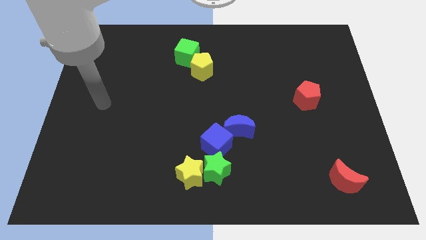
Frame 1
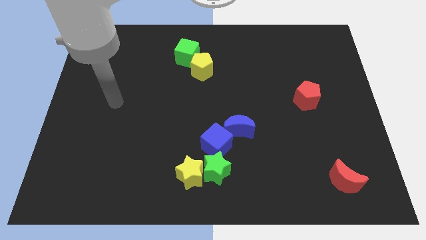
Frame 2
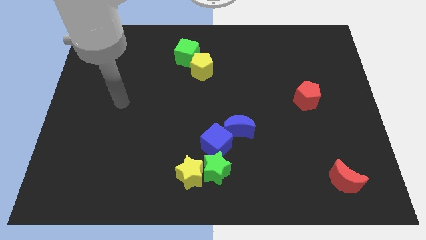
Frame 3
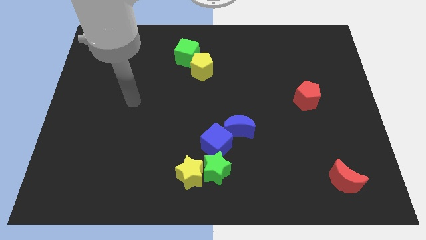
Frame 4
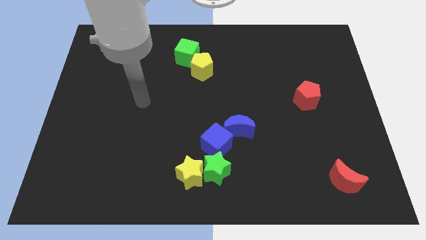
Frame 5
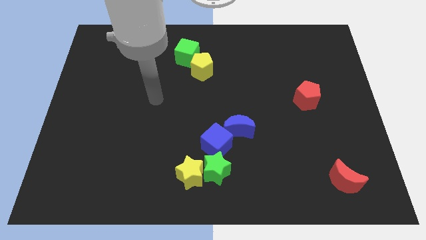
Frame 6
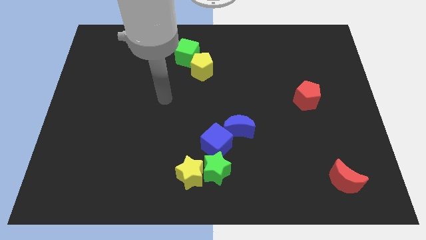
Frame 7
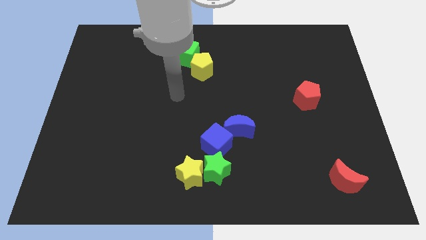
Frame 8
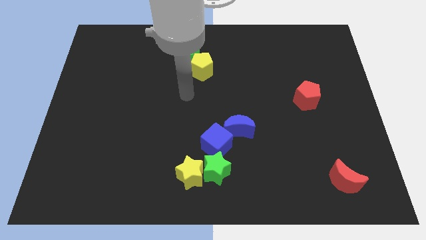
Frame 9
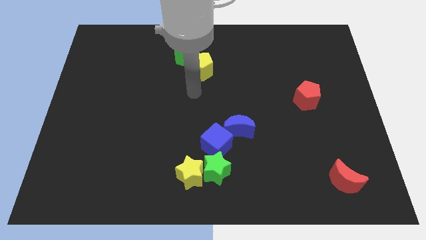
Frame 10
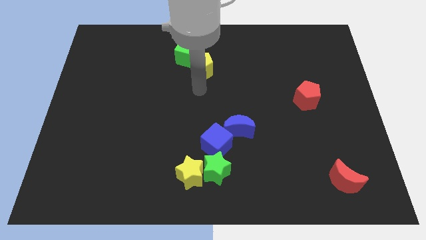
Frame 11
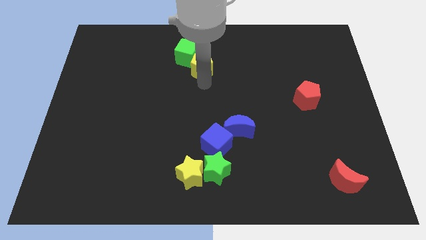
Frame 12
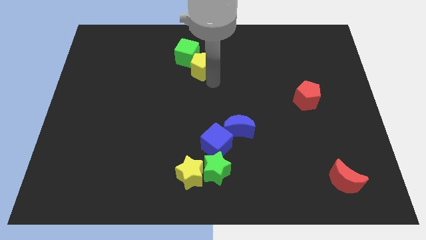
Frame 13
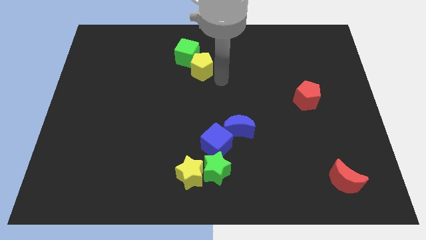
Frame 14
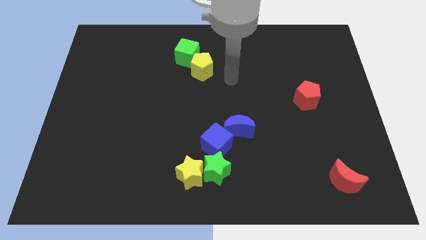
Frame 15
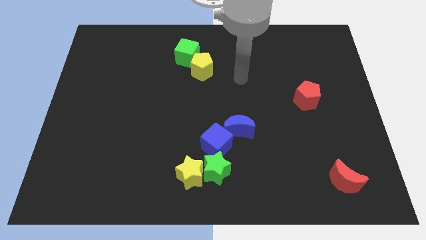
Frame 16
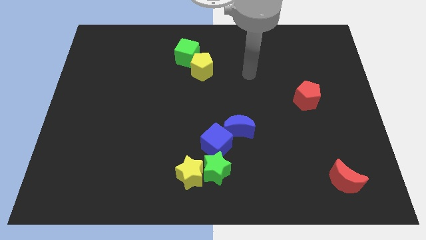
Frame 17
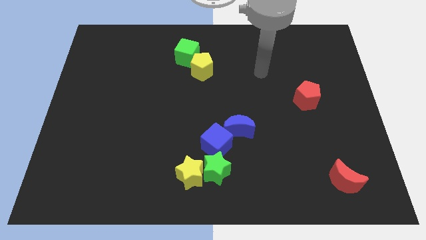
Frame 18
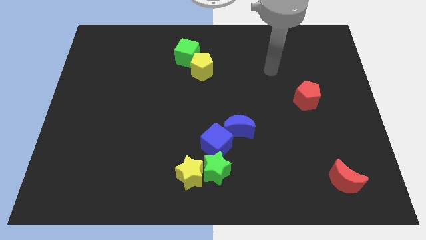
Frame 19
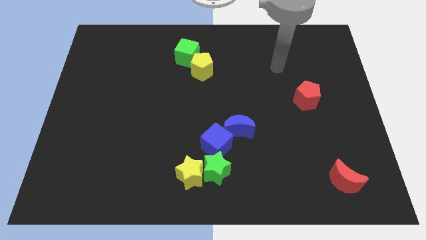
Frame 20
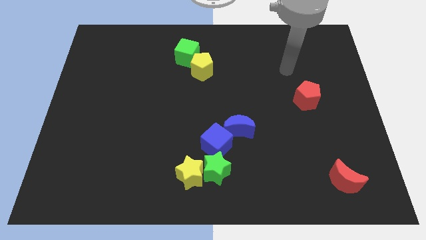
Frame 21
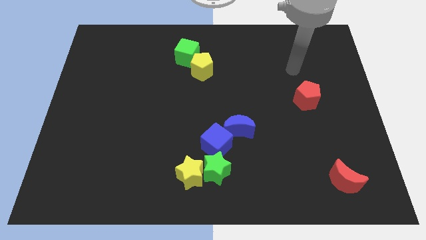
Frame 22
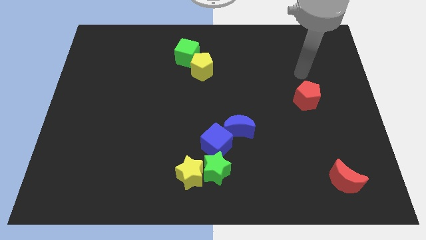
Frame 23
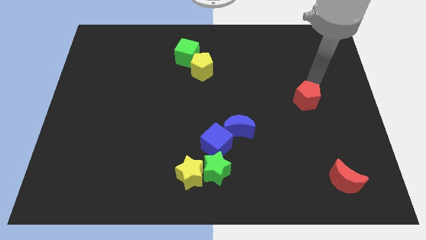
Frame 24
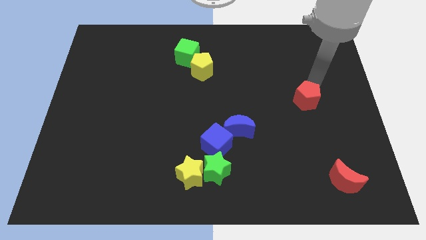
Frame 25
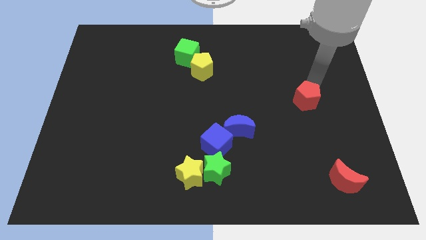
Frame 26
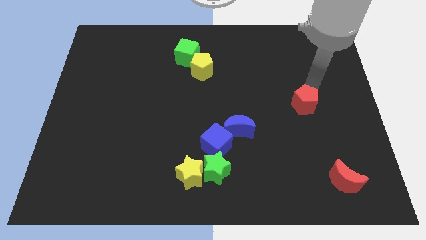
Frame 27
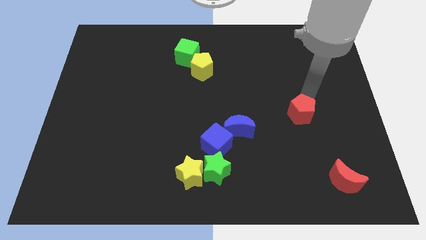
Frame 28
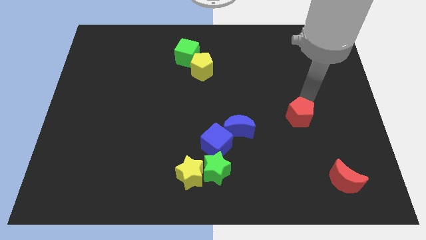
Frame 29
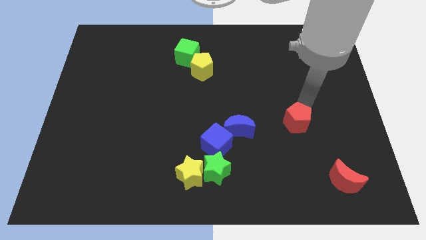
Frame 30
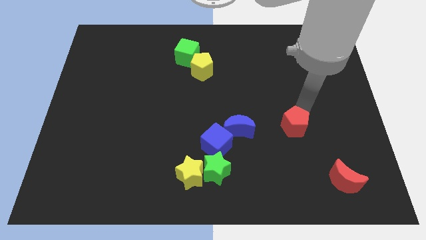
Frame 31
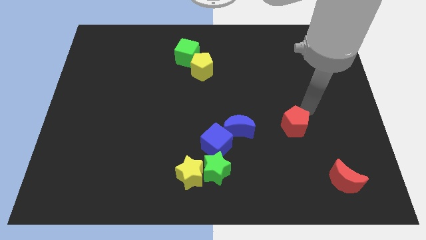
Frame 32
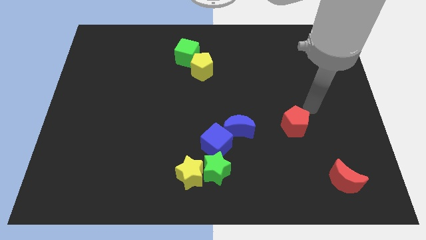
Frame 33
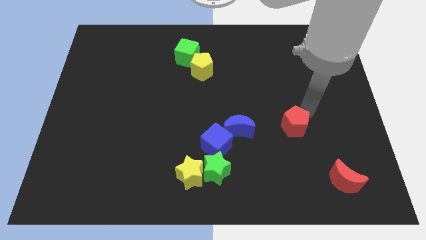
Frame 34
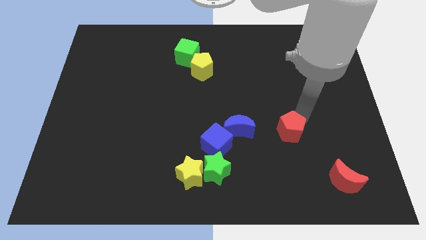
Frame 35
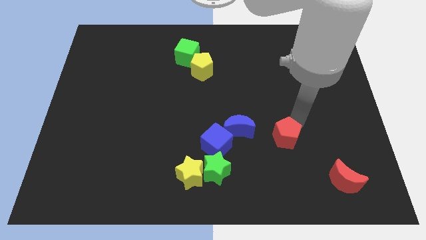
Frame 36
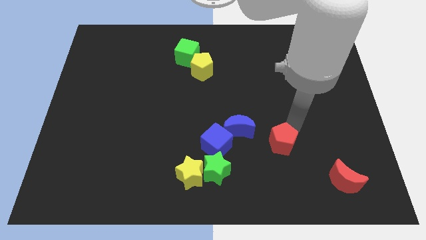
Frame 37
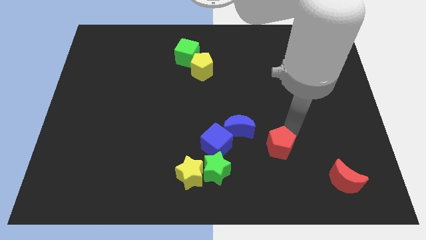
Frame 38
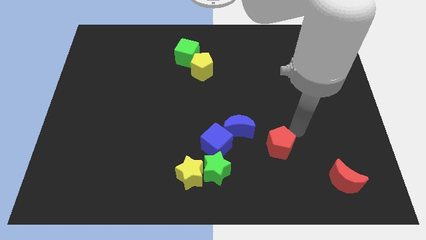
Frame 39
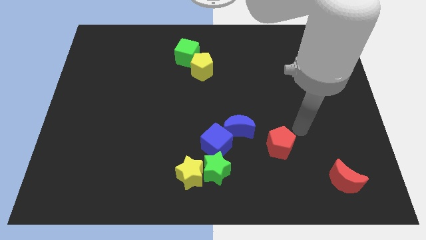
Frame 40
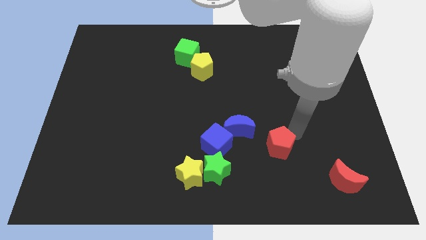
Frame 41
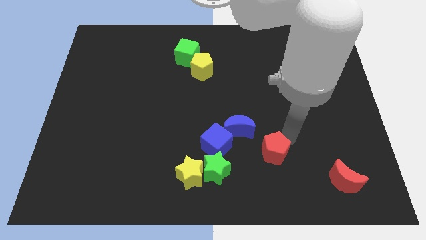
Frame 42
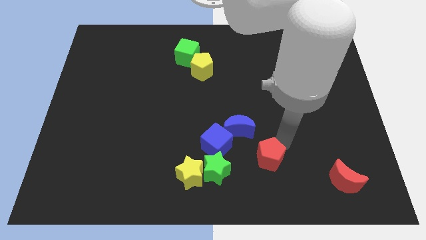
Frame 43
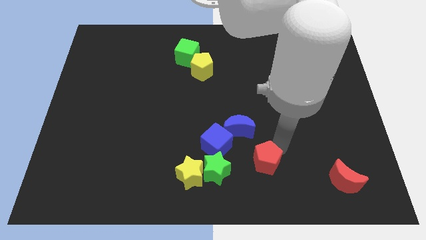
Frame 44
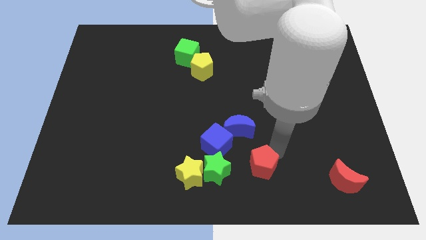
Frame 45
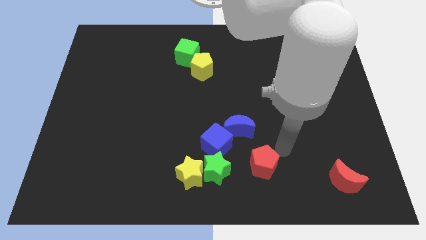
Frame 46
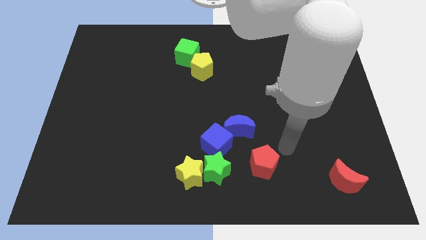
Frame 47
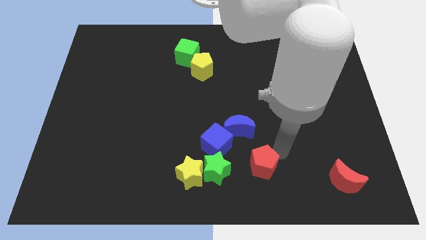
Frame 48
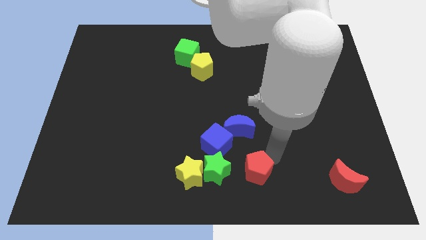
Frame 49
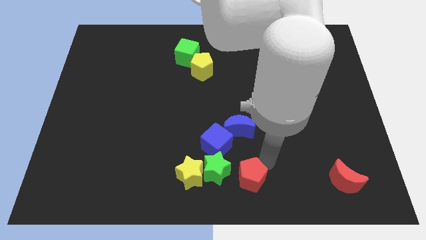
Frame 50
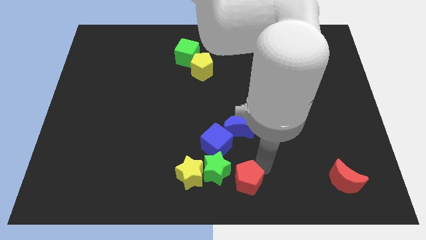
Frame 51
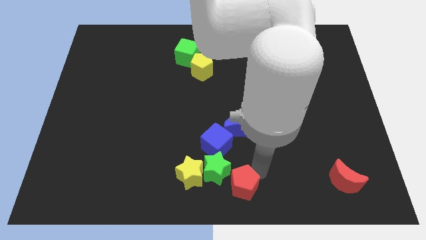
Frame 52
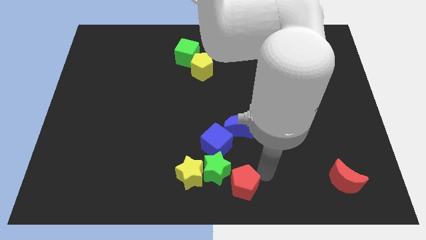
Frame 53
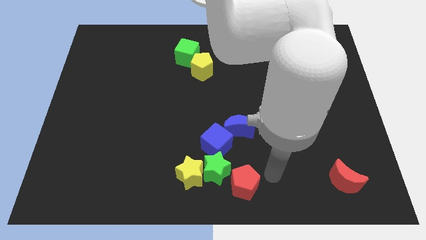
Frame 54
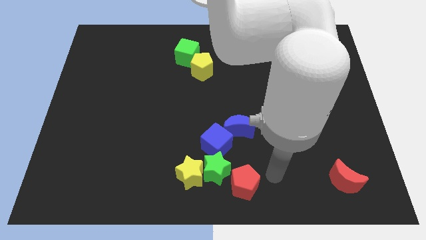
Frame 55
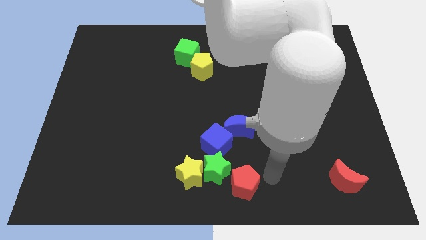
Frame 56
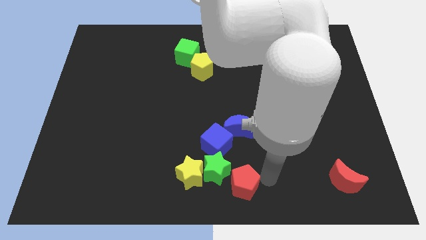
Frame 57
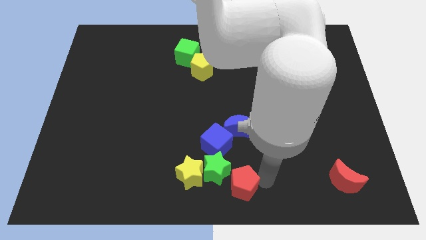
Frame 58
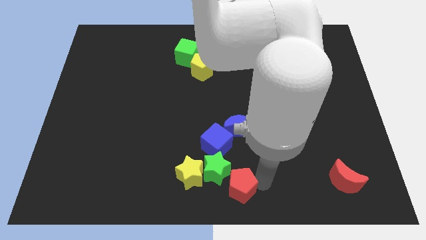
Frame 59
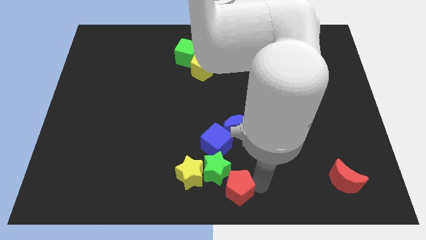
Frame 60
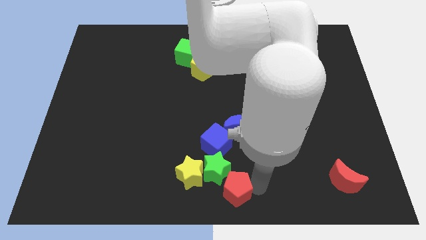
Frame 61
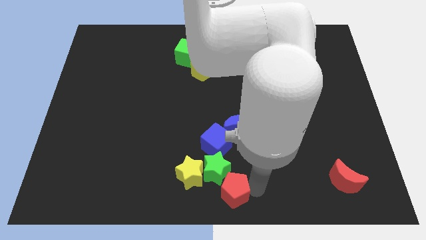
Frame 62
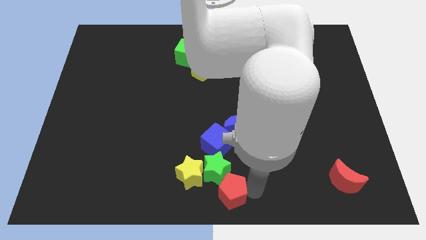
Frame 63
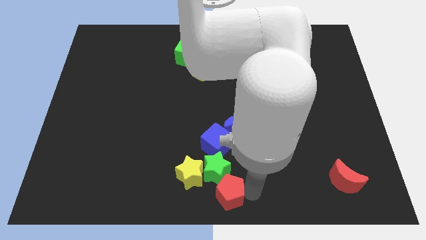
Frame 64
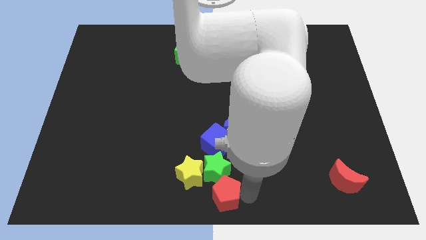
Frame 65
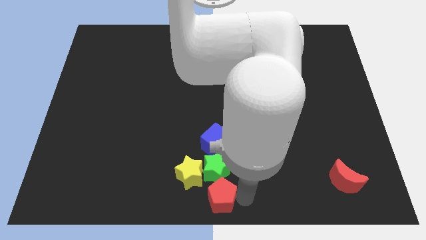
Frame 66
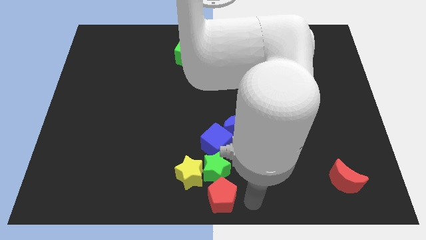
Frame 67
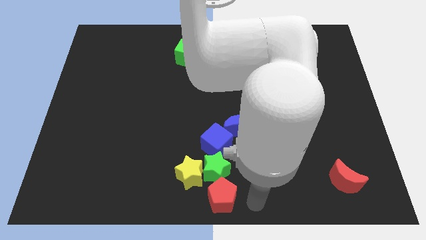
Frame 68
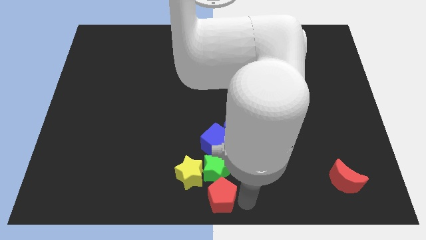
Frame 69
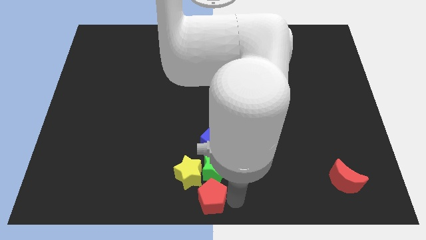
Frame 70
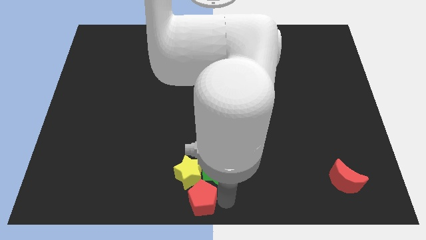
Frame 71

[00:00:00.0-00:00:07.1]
put the red pentagon next to the yellow star

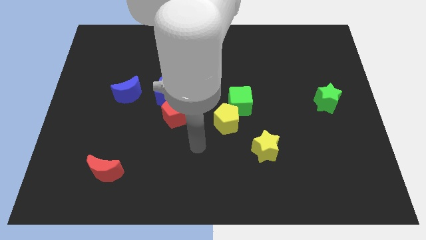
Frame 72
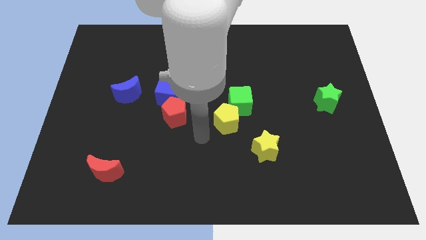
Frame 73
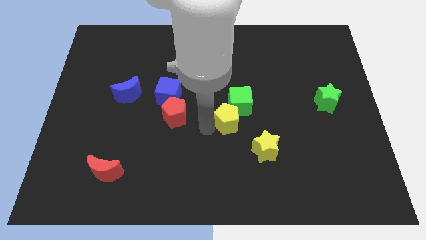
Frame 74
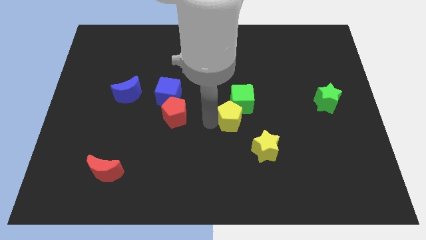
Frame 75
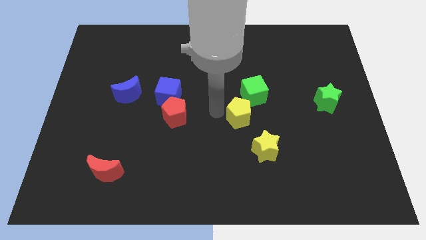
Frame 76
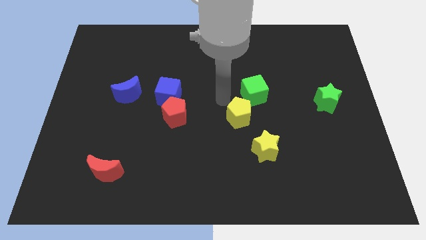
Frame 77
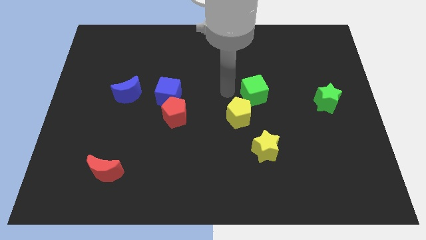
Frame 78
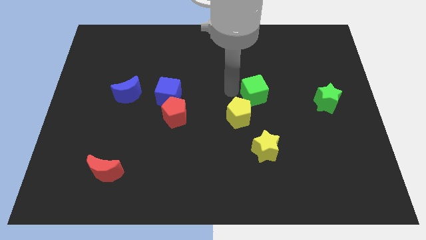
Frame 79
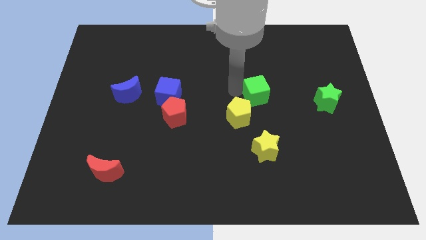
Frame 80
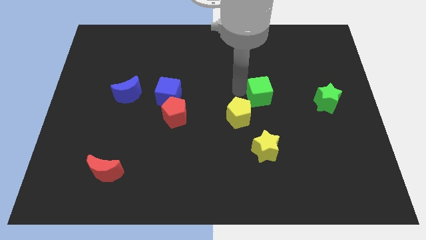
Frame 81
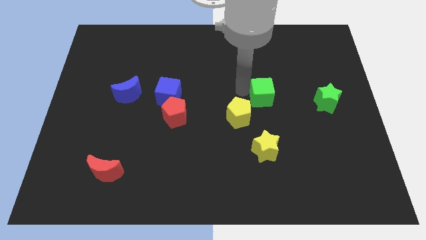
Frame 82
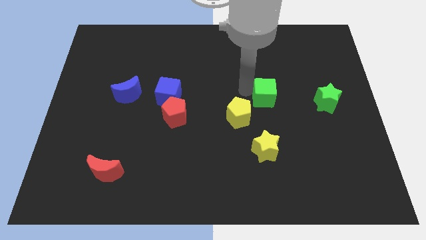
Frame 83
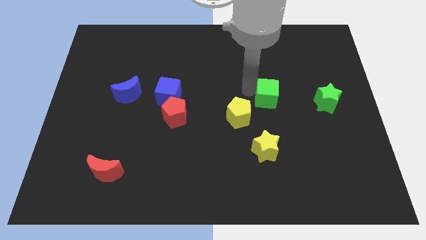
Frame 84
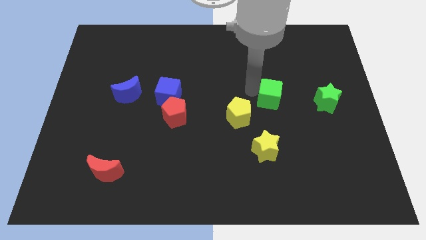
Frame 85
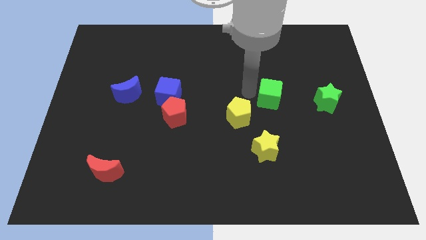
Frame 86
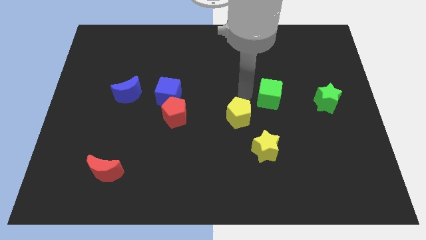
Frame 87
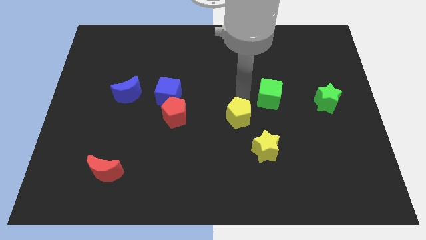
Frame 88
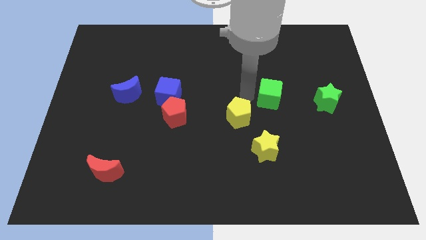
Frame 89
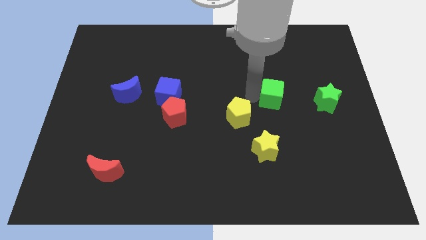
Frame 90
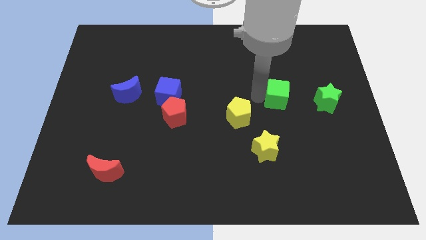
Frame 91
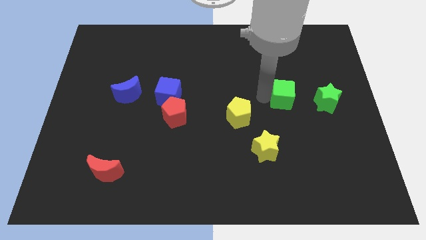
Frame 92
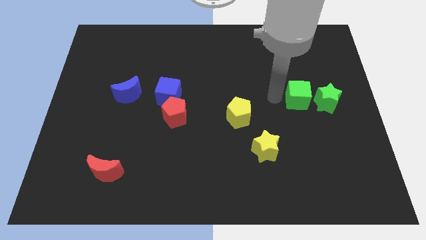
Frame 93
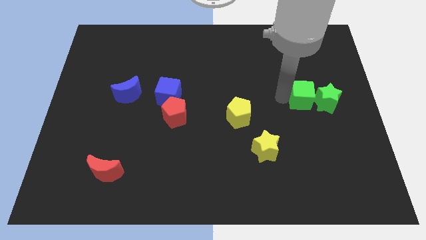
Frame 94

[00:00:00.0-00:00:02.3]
slide the green cube next to the green star
